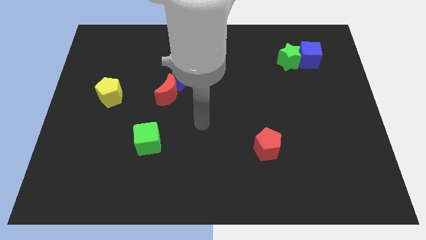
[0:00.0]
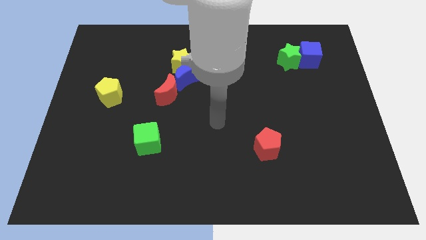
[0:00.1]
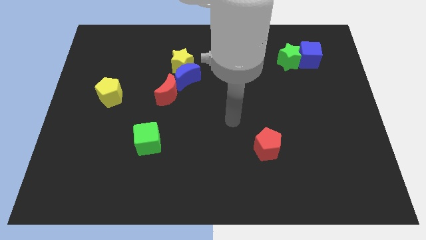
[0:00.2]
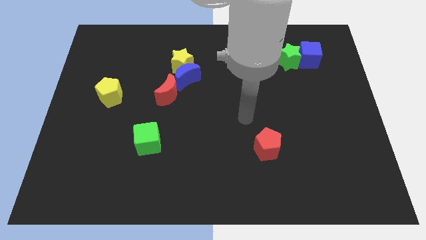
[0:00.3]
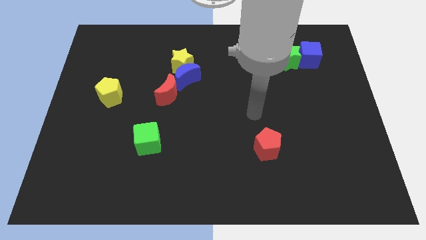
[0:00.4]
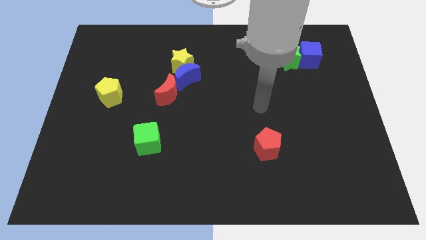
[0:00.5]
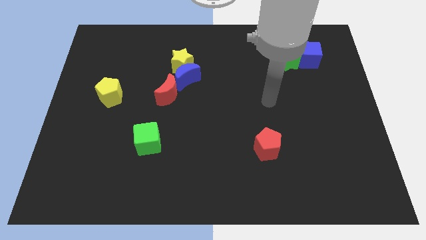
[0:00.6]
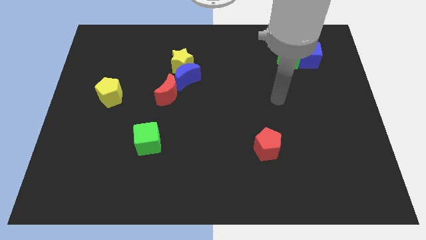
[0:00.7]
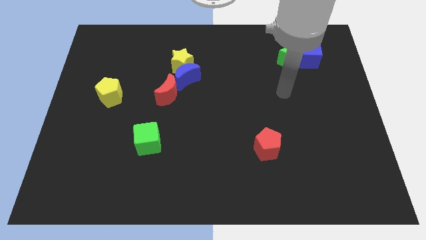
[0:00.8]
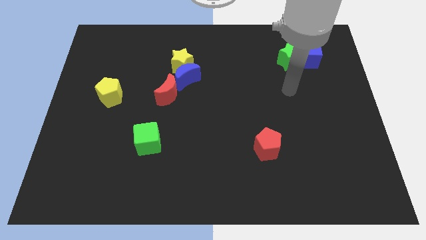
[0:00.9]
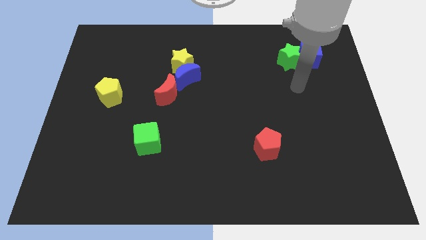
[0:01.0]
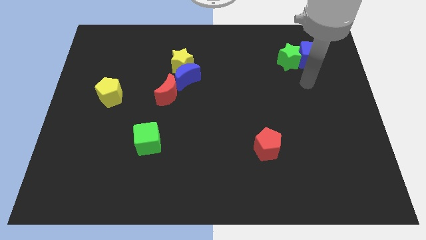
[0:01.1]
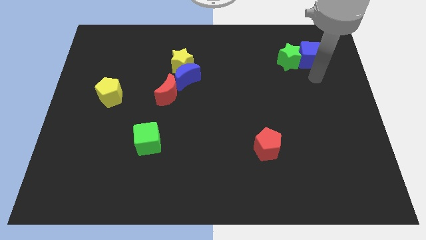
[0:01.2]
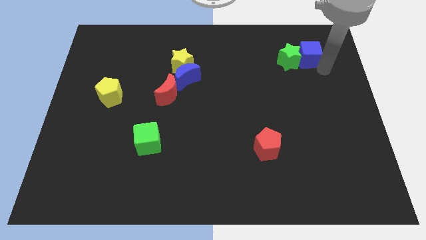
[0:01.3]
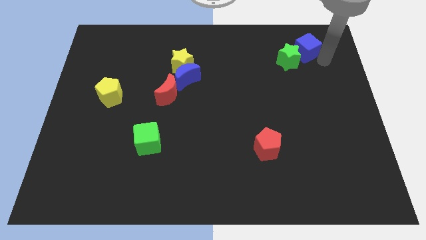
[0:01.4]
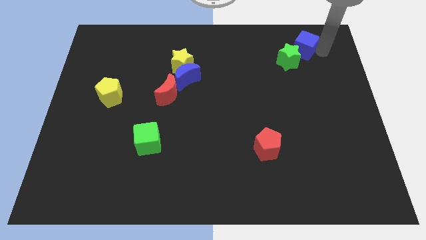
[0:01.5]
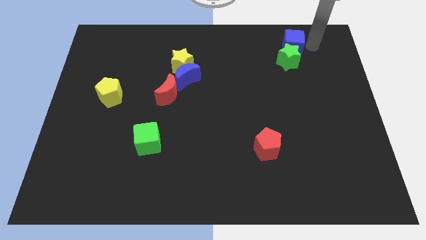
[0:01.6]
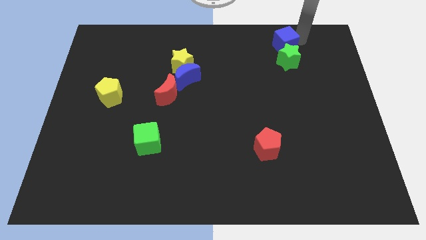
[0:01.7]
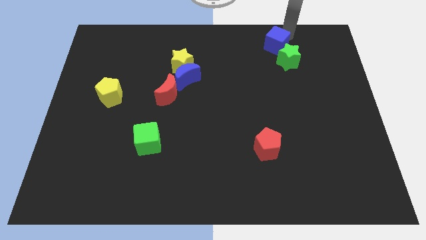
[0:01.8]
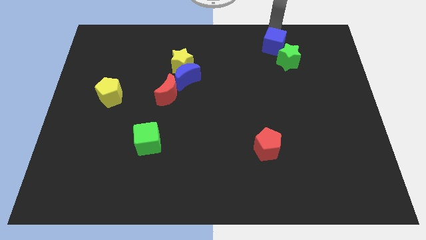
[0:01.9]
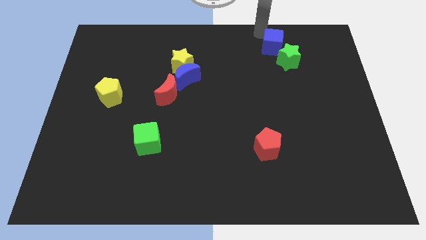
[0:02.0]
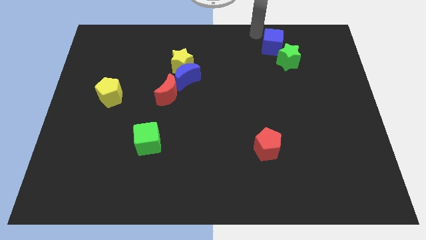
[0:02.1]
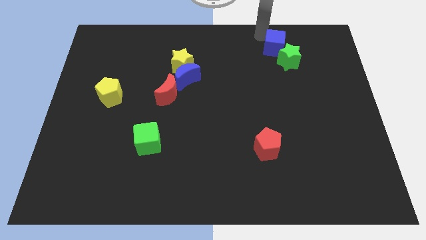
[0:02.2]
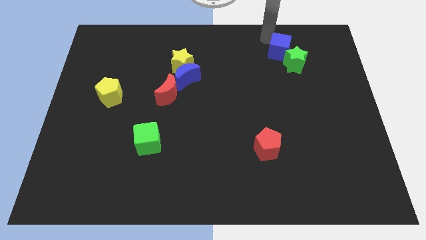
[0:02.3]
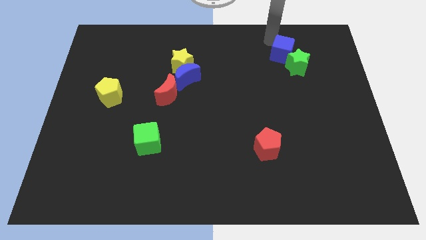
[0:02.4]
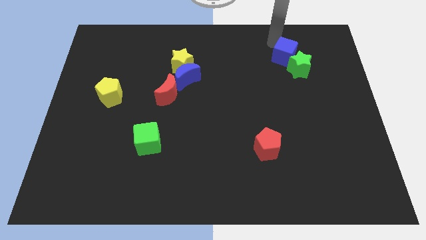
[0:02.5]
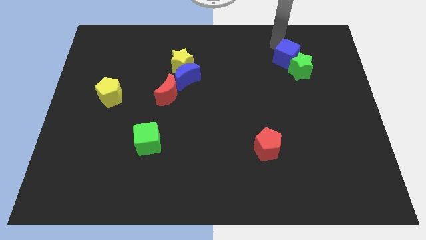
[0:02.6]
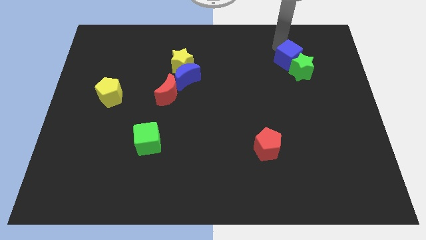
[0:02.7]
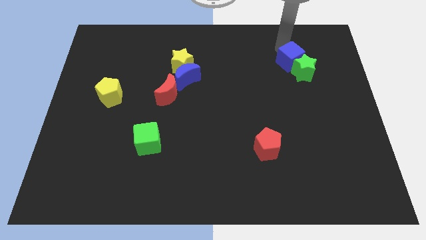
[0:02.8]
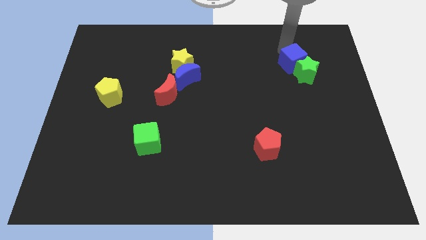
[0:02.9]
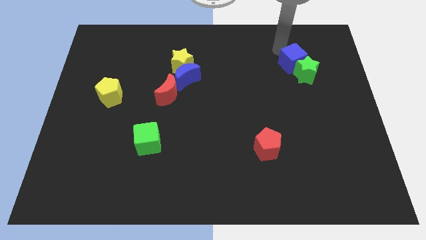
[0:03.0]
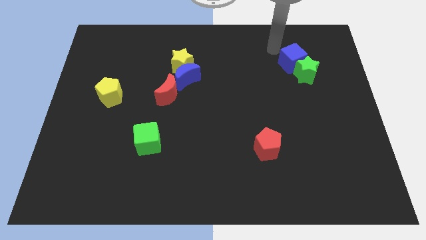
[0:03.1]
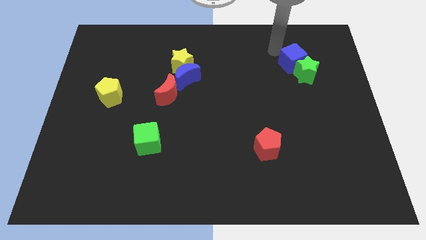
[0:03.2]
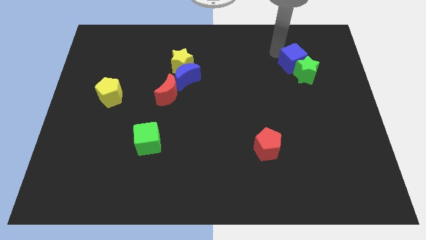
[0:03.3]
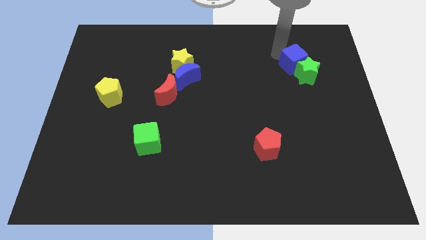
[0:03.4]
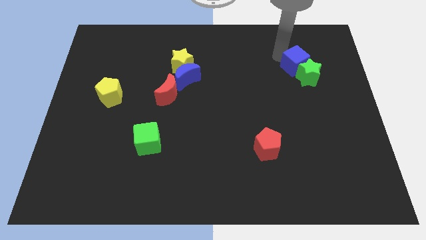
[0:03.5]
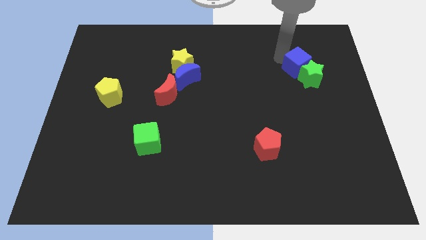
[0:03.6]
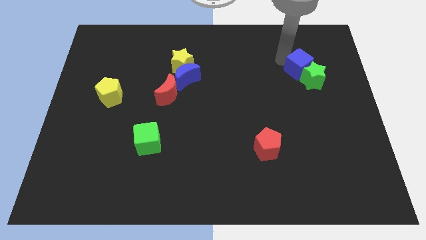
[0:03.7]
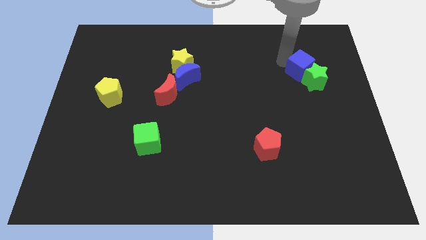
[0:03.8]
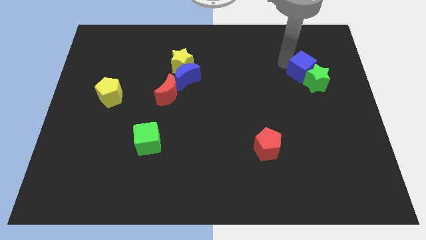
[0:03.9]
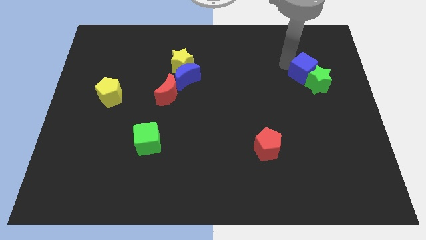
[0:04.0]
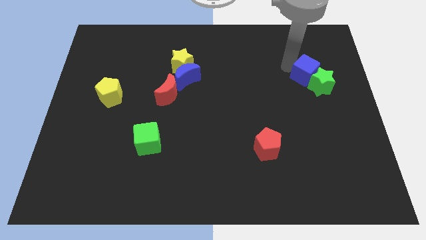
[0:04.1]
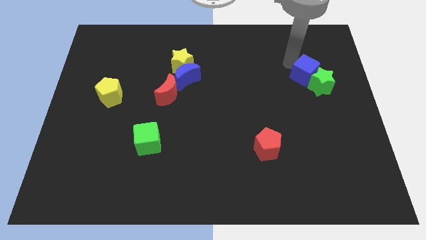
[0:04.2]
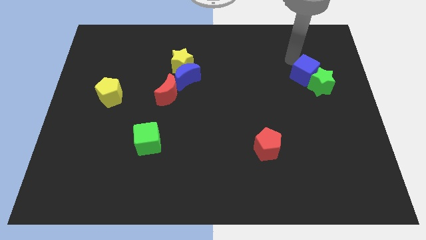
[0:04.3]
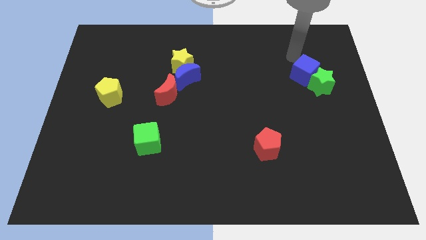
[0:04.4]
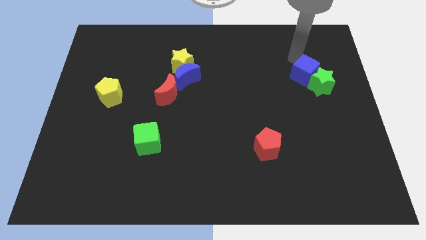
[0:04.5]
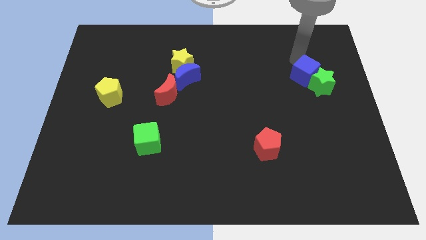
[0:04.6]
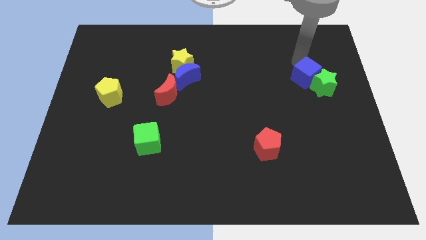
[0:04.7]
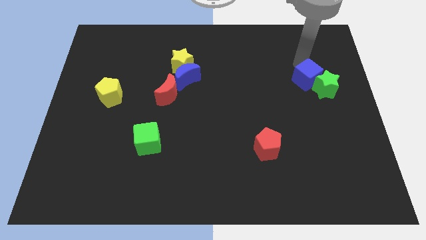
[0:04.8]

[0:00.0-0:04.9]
slide the blue cube a little bit downwards

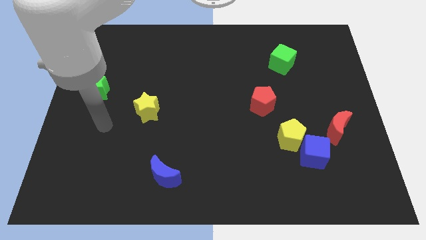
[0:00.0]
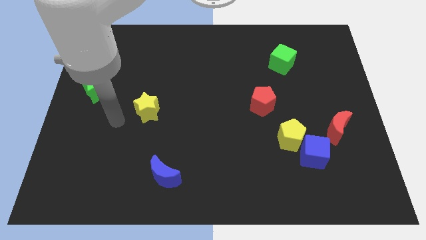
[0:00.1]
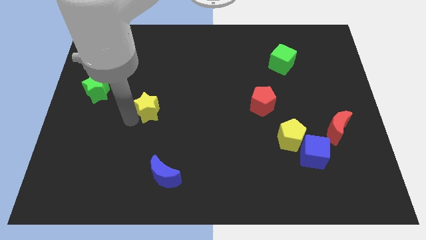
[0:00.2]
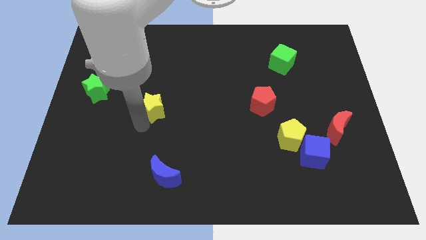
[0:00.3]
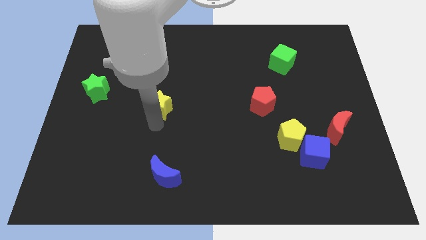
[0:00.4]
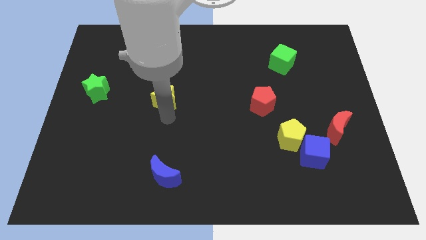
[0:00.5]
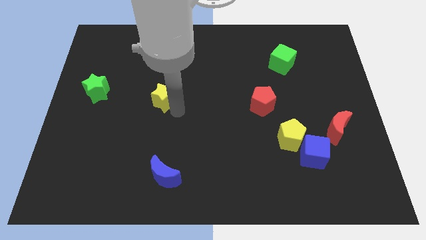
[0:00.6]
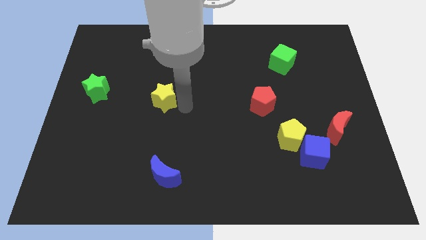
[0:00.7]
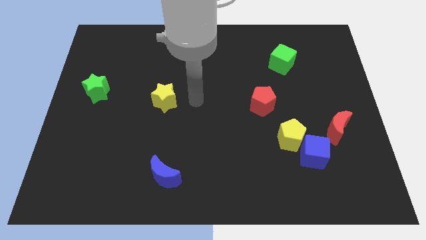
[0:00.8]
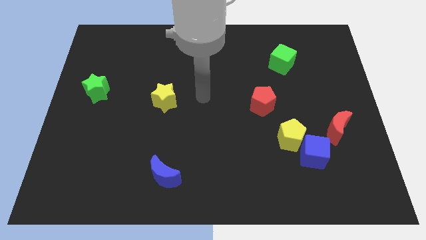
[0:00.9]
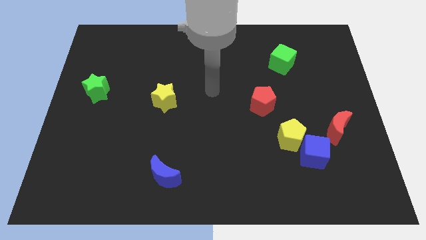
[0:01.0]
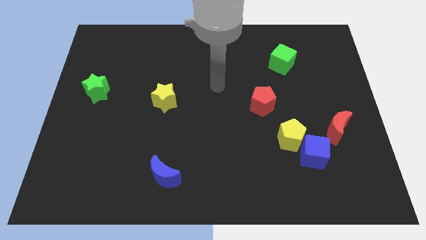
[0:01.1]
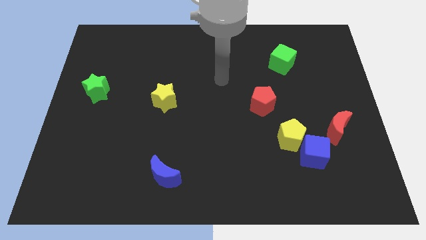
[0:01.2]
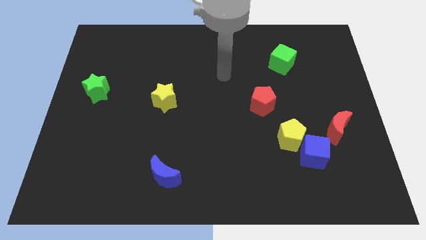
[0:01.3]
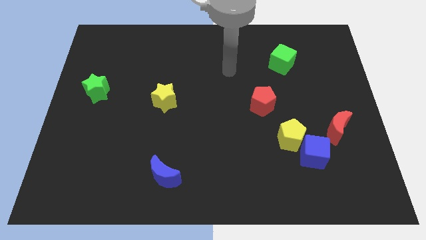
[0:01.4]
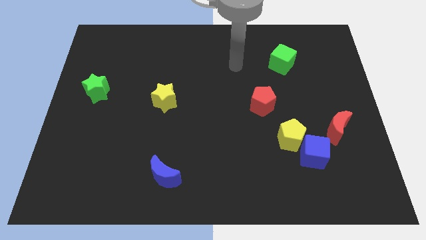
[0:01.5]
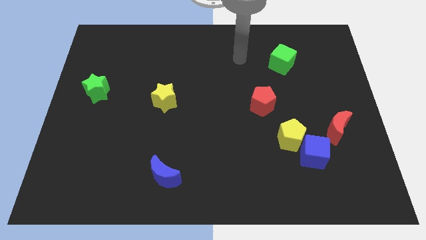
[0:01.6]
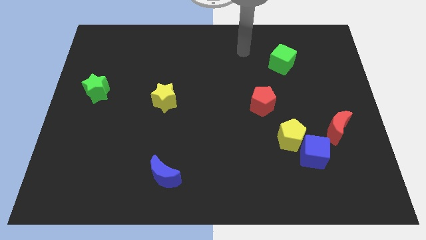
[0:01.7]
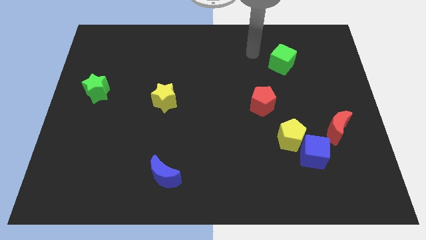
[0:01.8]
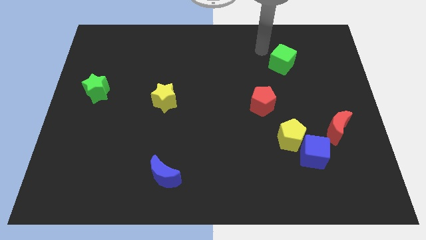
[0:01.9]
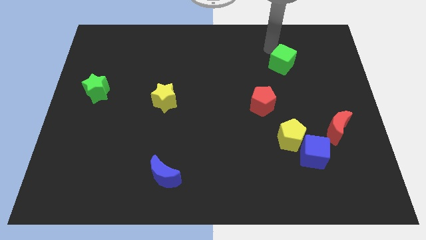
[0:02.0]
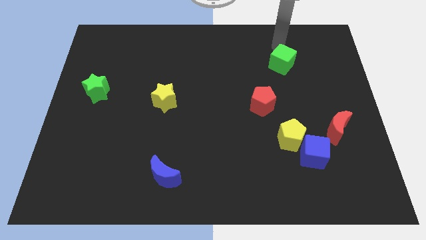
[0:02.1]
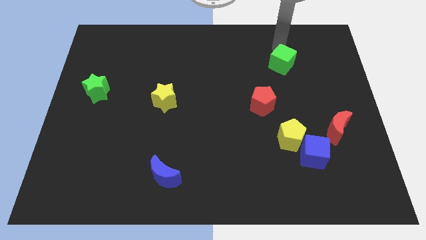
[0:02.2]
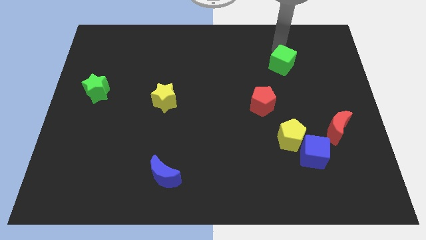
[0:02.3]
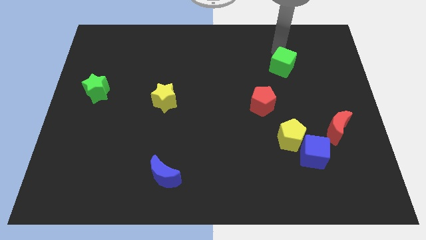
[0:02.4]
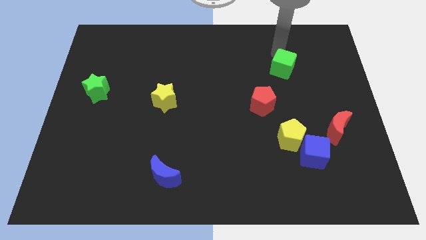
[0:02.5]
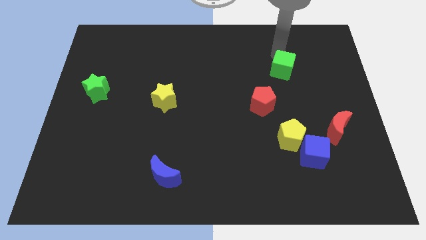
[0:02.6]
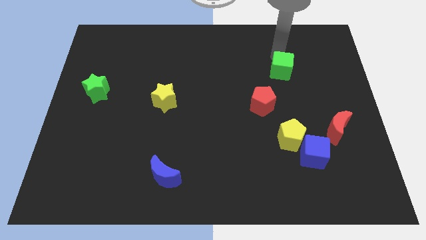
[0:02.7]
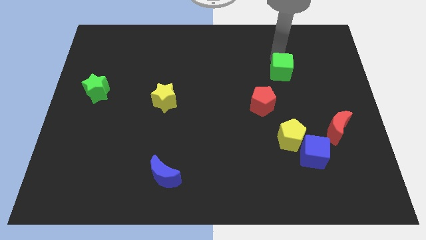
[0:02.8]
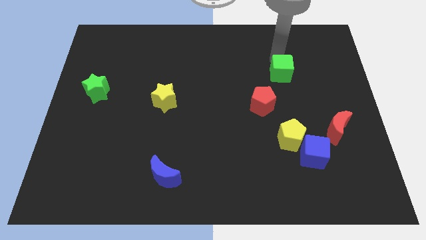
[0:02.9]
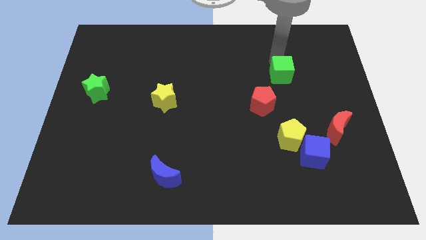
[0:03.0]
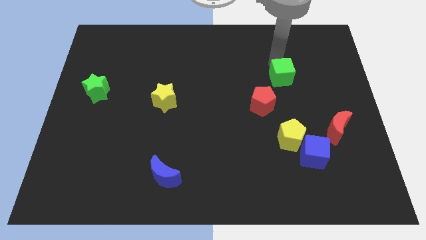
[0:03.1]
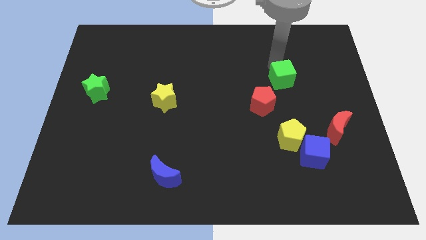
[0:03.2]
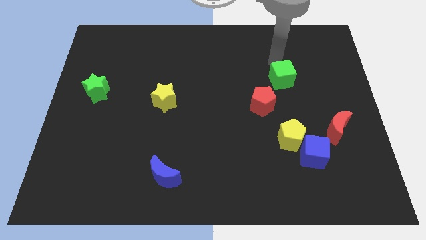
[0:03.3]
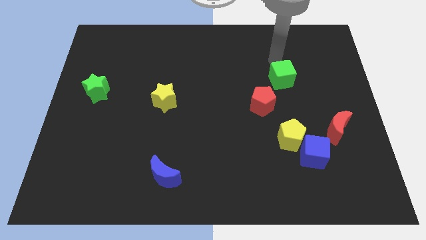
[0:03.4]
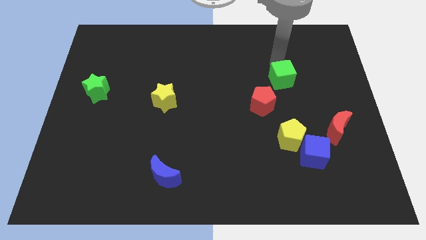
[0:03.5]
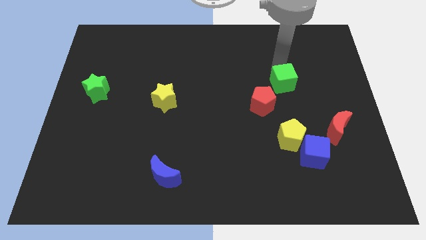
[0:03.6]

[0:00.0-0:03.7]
slightly move the green cube downwards
